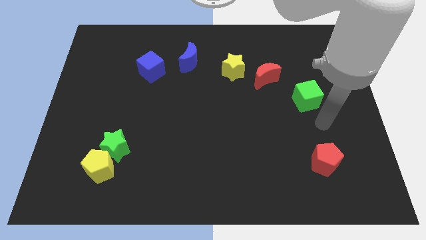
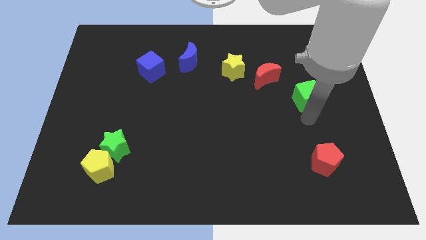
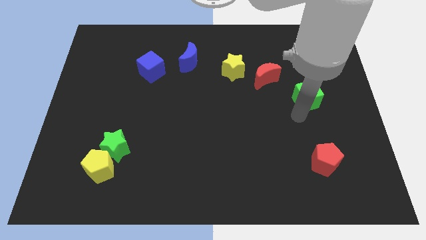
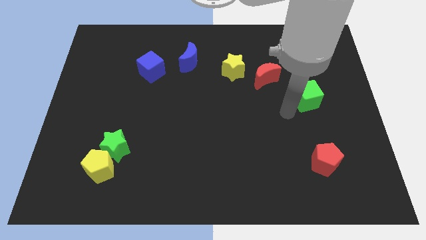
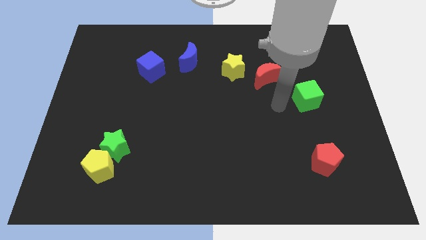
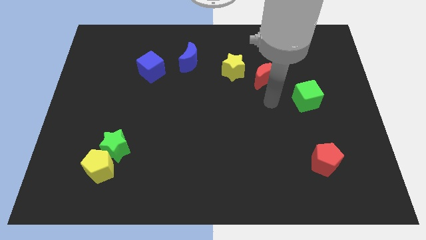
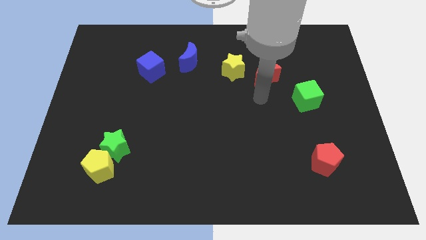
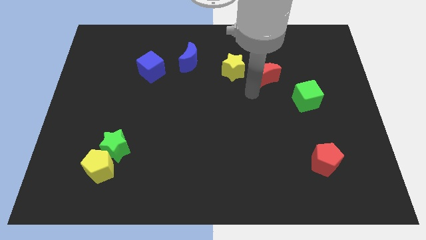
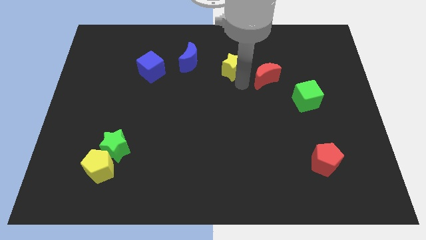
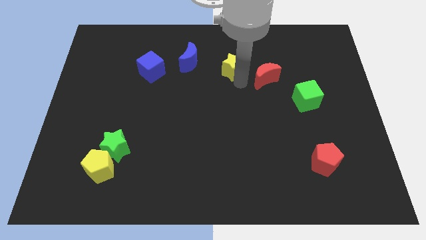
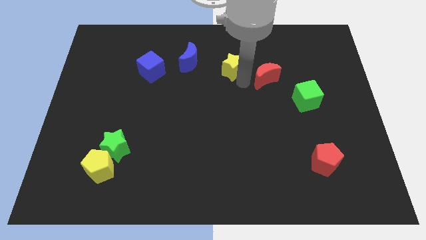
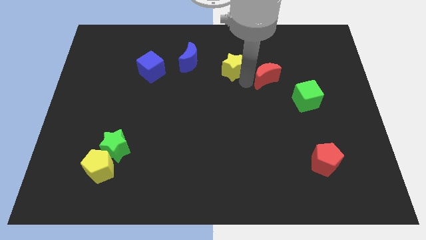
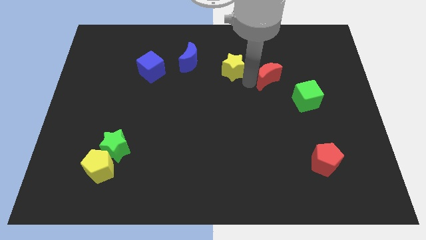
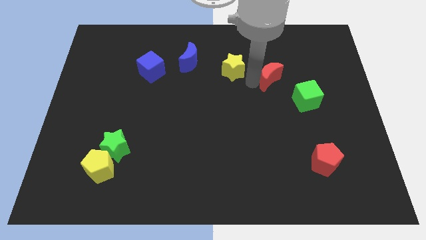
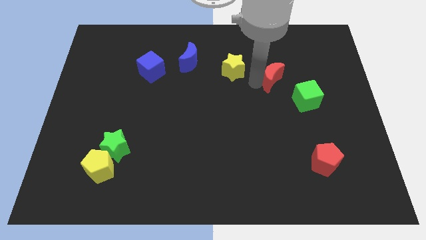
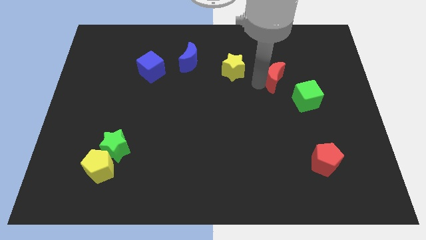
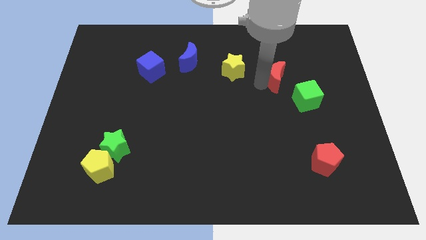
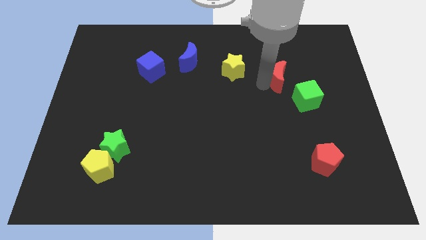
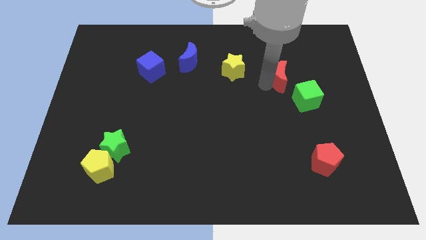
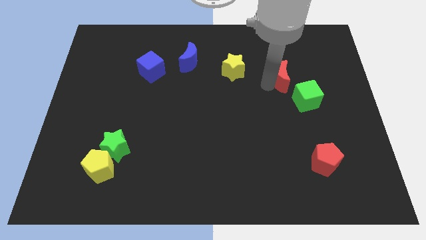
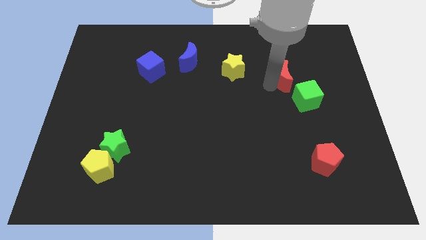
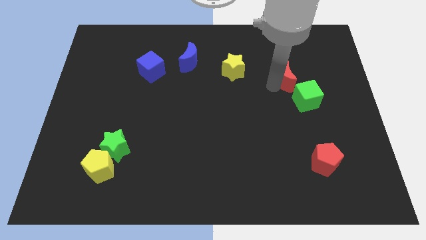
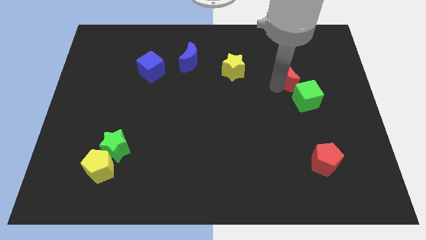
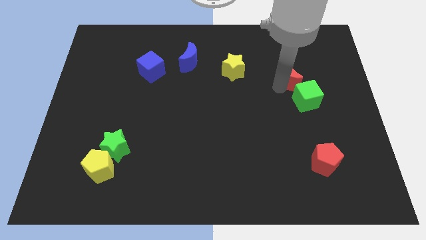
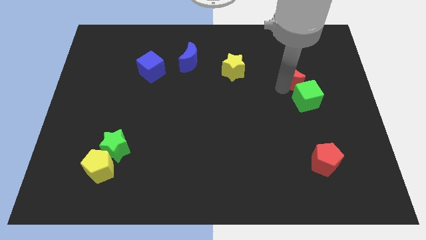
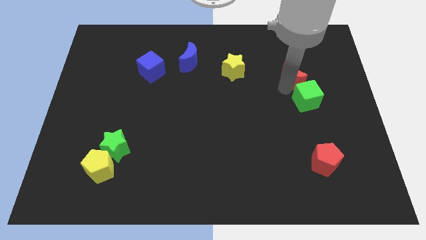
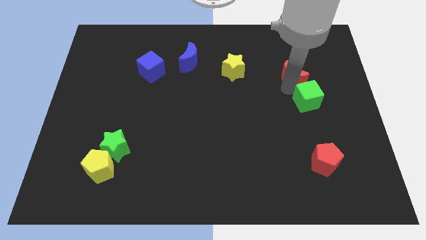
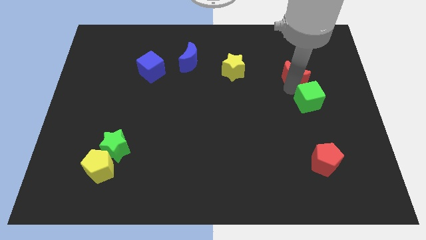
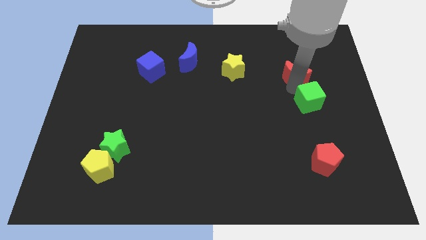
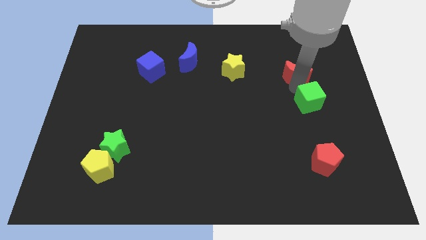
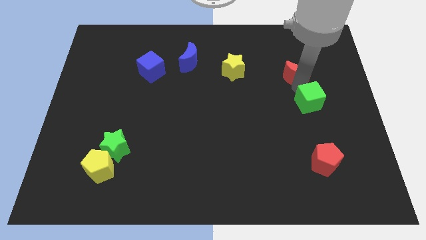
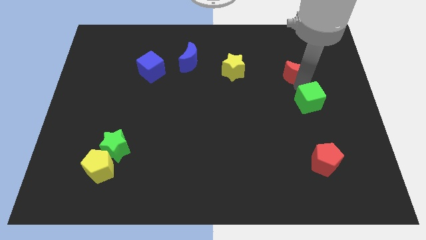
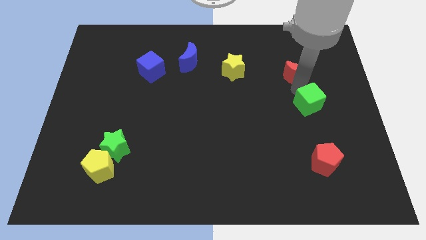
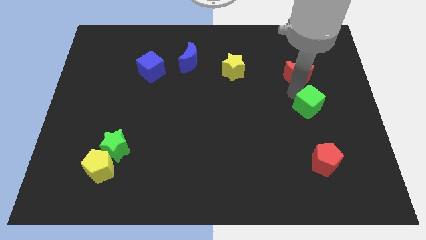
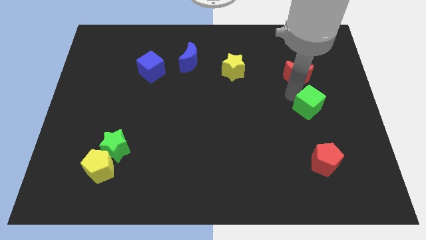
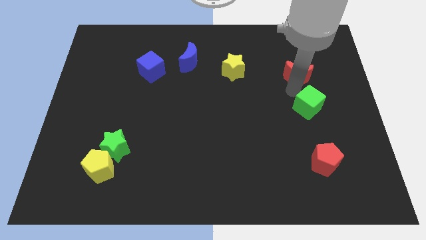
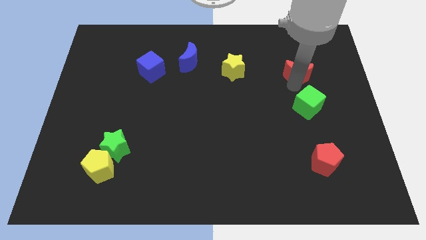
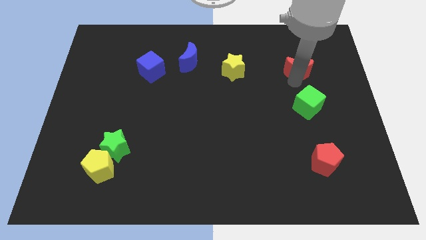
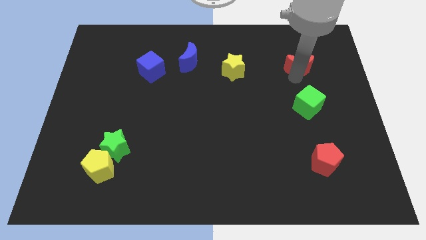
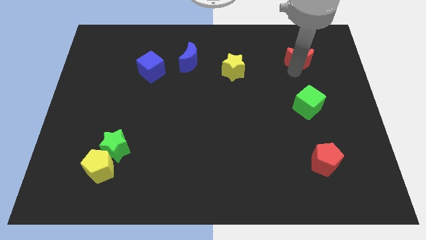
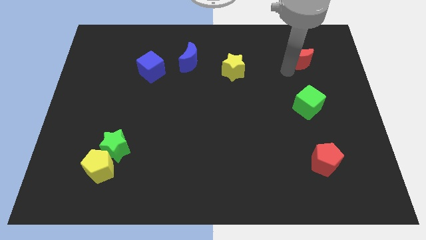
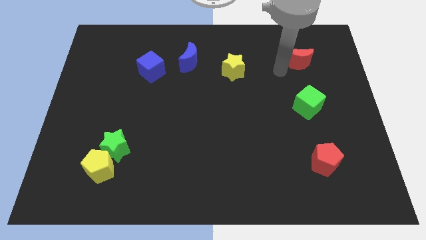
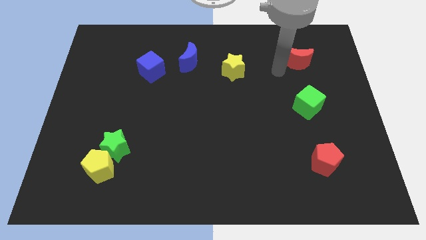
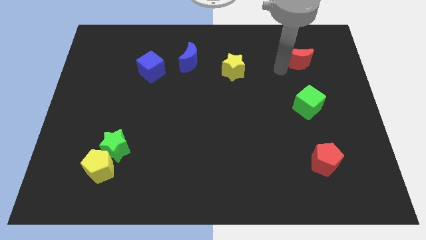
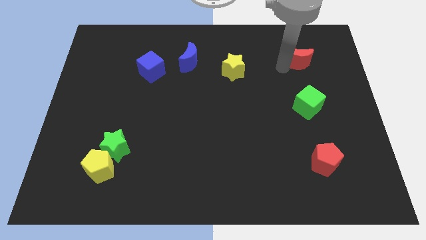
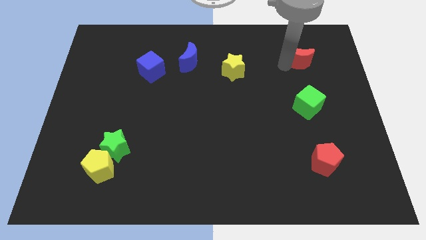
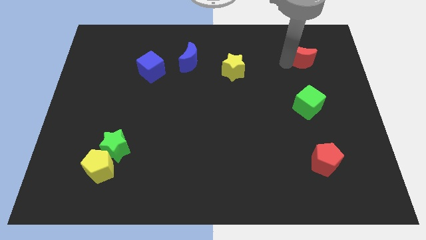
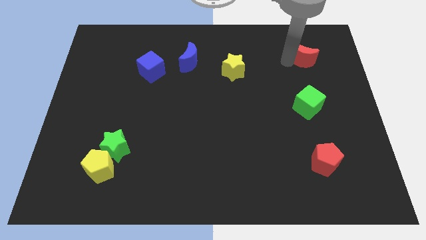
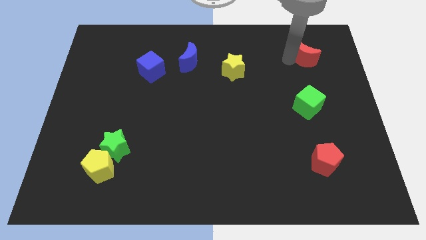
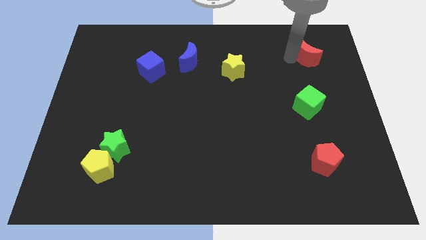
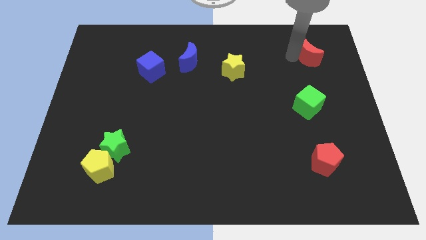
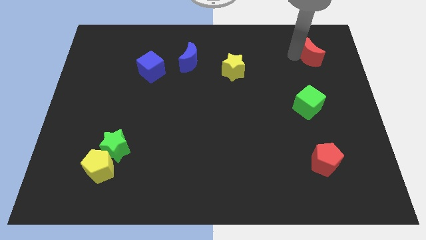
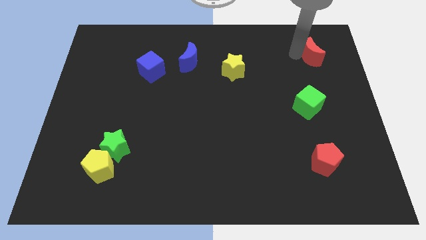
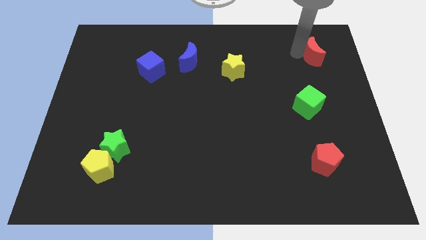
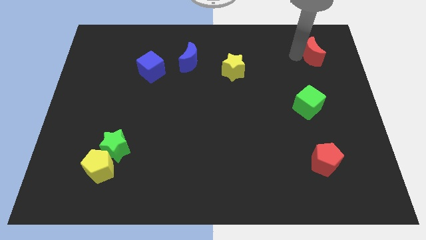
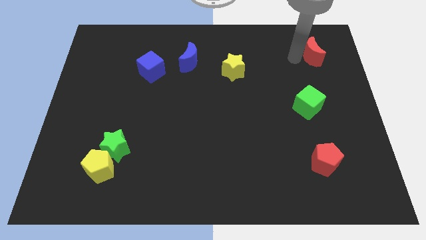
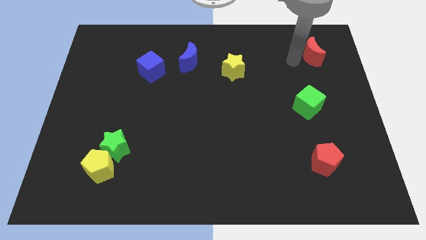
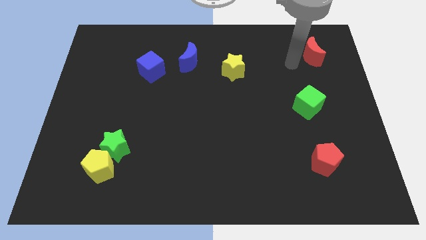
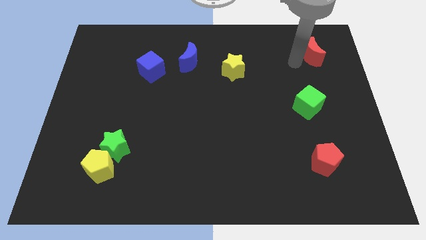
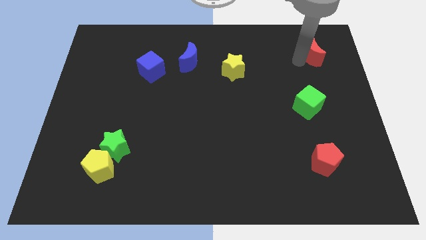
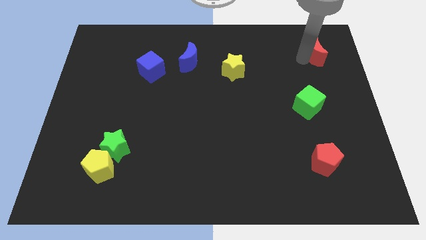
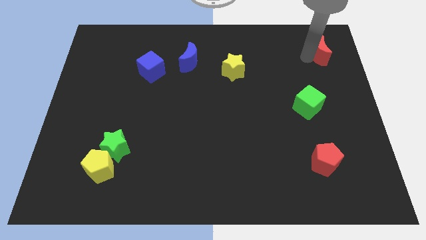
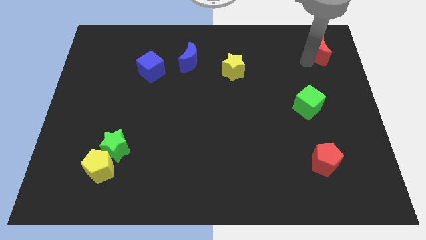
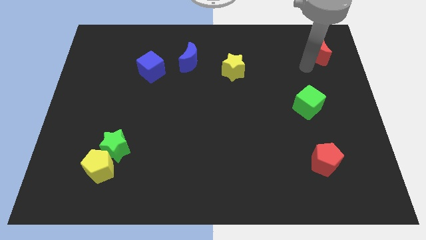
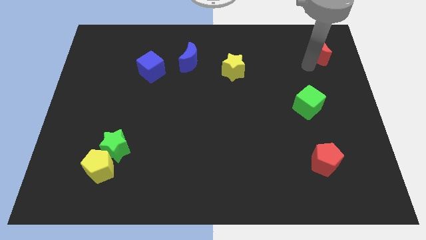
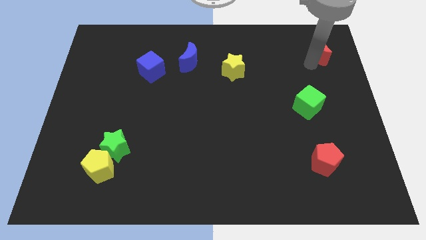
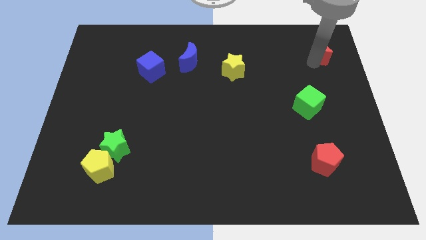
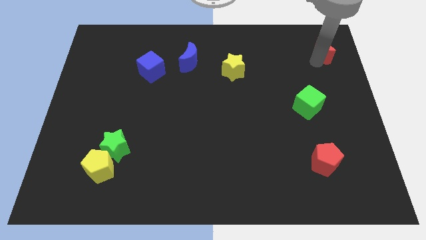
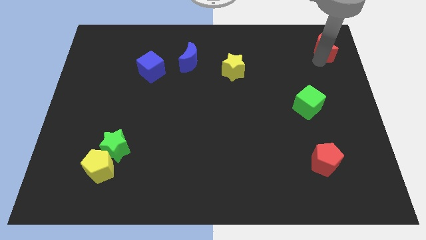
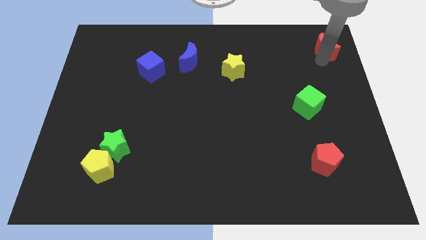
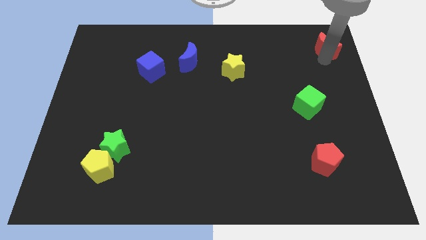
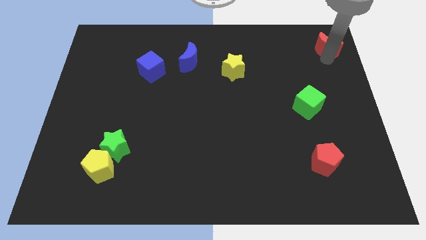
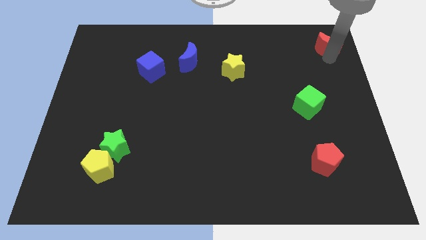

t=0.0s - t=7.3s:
move the red moon to the top right of the board
